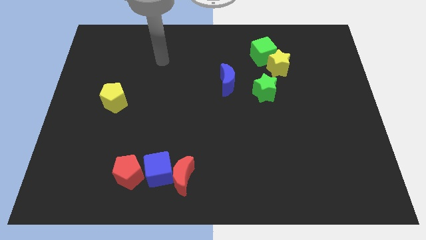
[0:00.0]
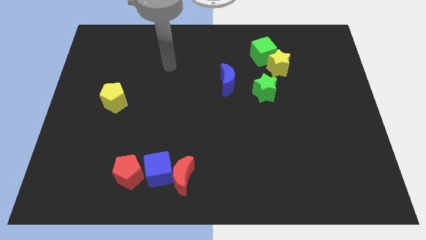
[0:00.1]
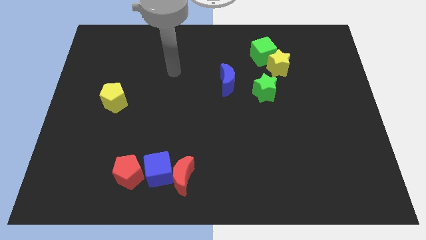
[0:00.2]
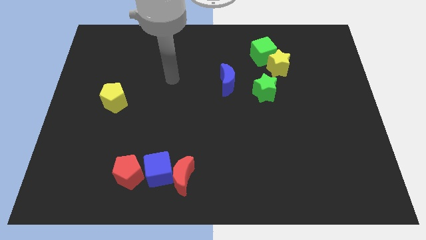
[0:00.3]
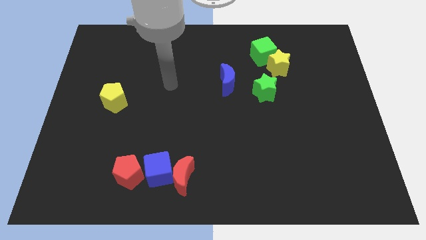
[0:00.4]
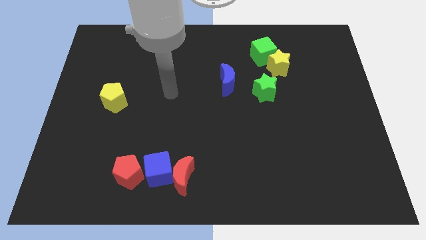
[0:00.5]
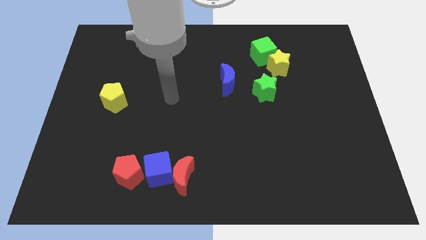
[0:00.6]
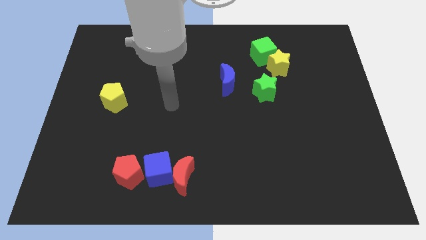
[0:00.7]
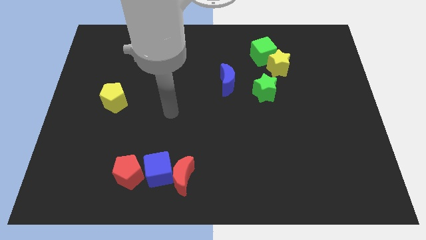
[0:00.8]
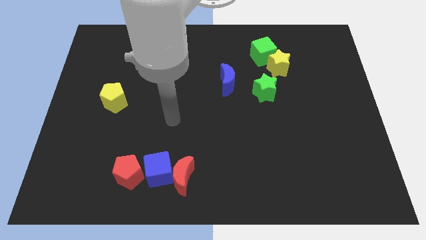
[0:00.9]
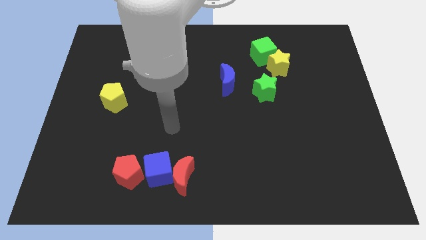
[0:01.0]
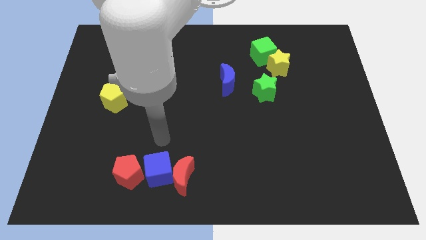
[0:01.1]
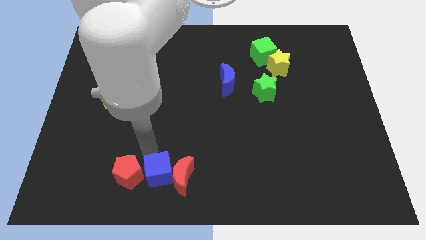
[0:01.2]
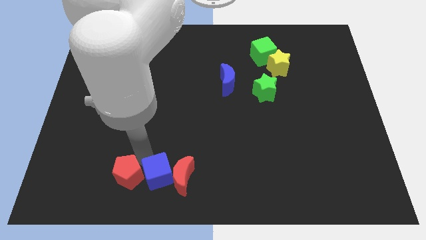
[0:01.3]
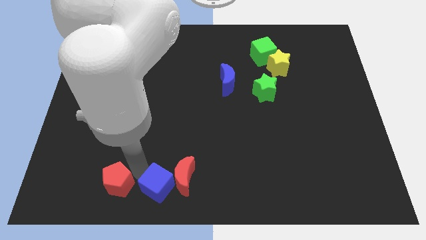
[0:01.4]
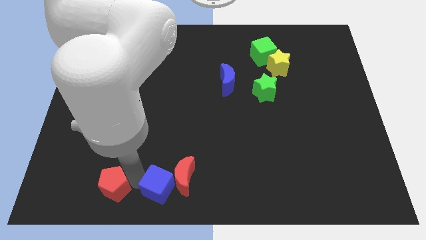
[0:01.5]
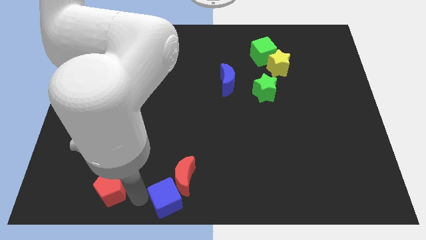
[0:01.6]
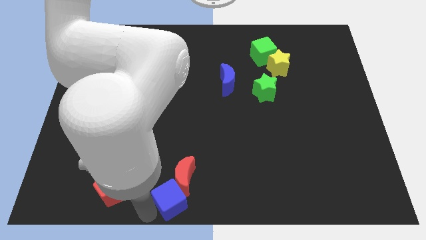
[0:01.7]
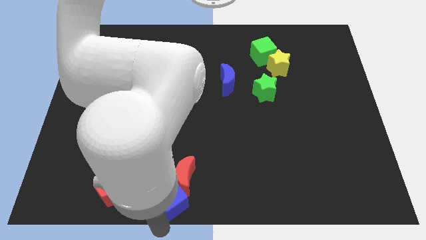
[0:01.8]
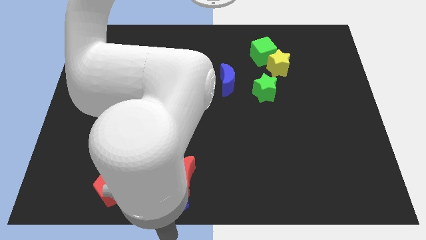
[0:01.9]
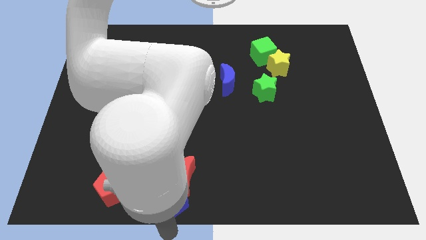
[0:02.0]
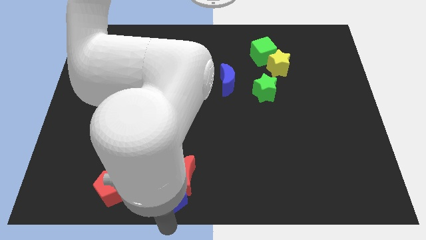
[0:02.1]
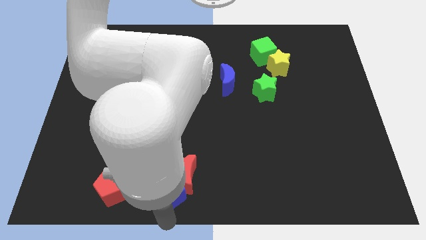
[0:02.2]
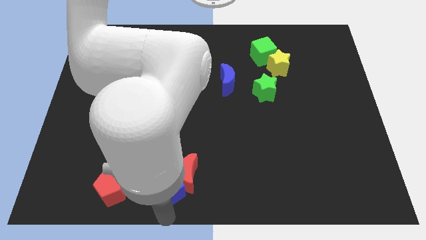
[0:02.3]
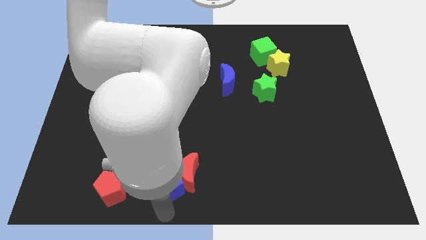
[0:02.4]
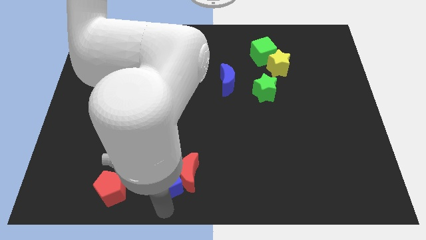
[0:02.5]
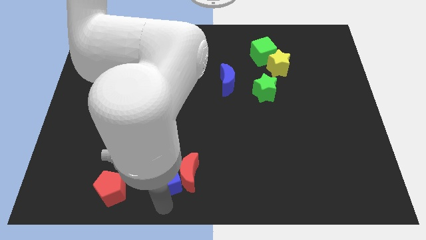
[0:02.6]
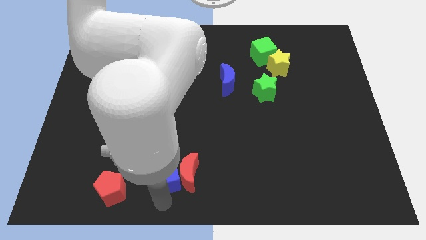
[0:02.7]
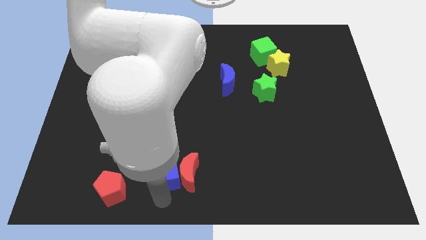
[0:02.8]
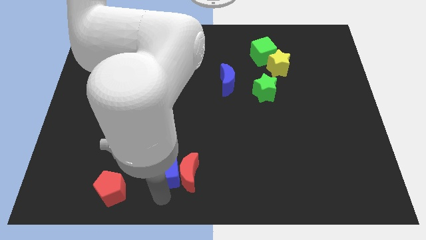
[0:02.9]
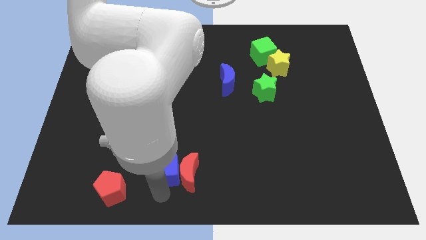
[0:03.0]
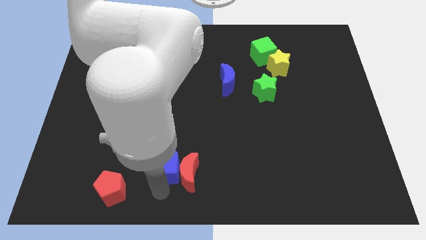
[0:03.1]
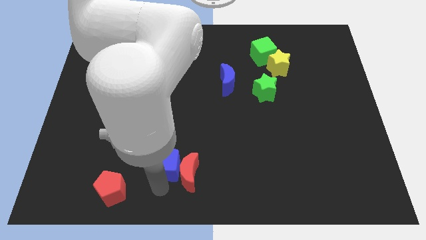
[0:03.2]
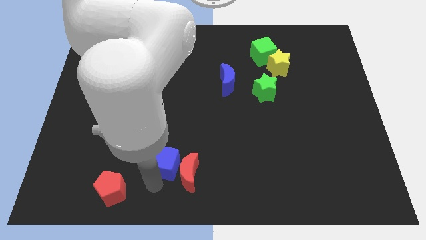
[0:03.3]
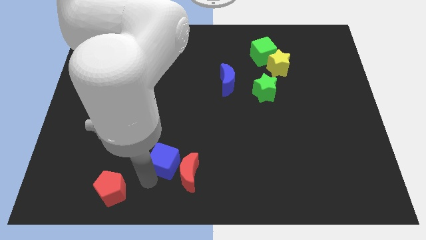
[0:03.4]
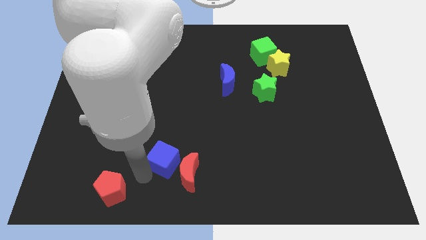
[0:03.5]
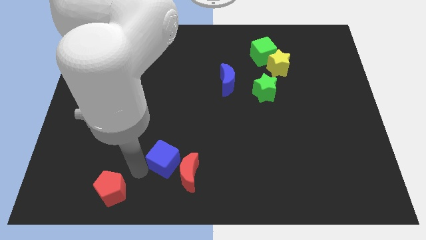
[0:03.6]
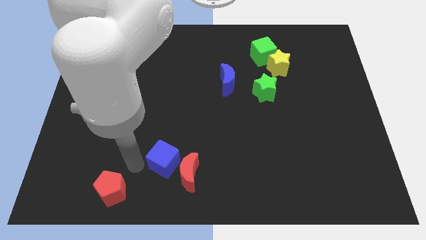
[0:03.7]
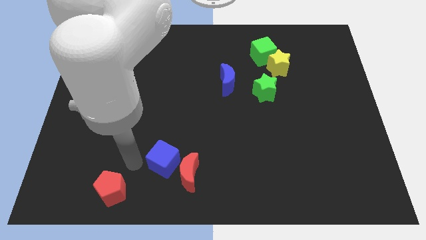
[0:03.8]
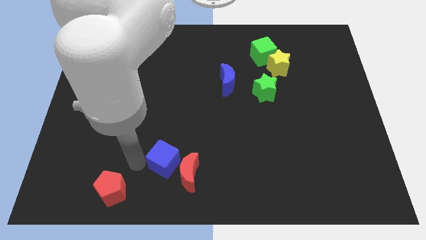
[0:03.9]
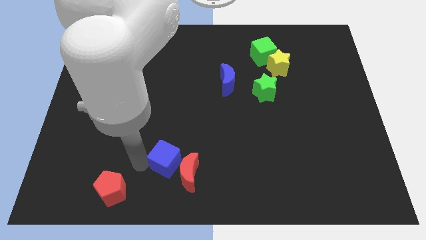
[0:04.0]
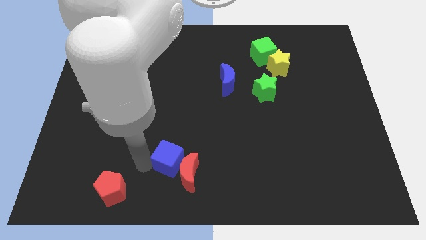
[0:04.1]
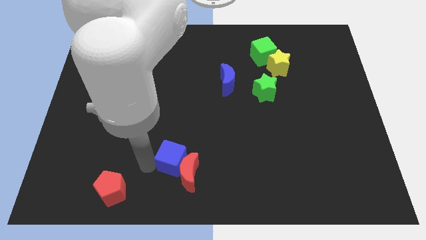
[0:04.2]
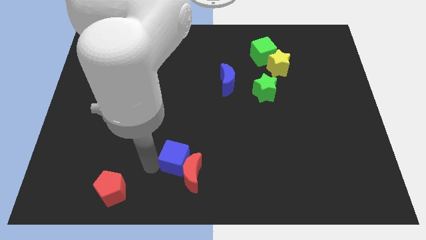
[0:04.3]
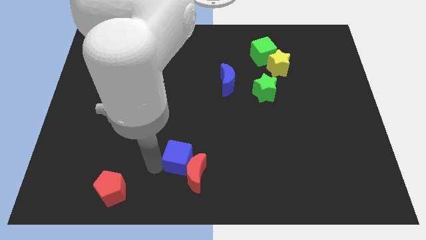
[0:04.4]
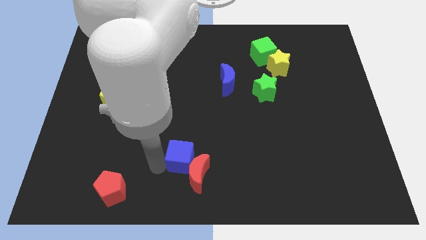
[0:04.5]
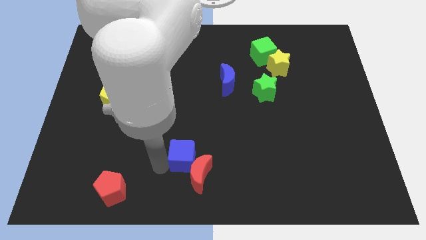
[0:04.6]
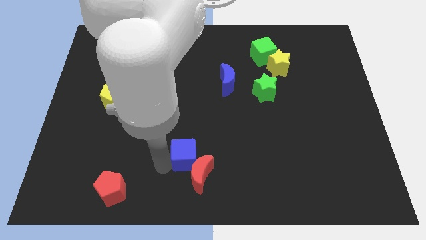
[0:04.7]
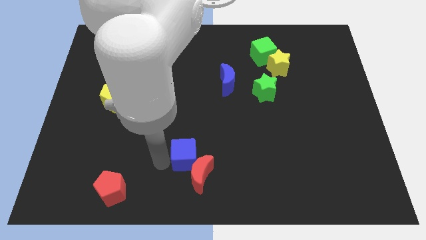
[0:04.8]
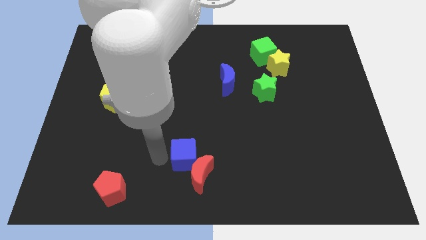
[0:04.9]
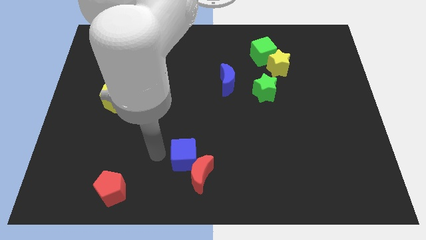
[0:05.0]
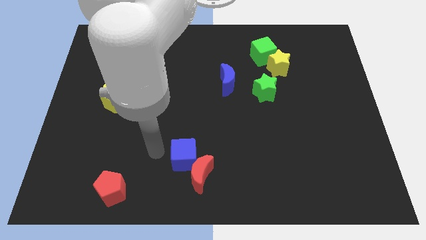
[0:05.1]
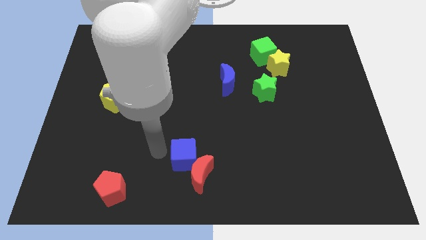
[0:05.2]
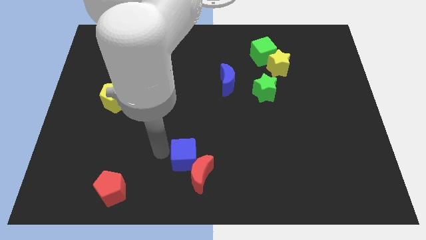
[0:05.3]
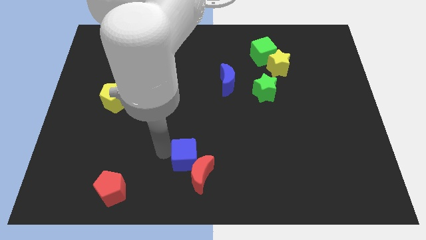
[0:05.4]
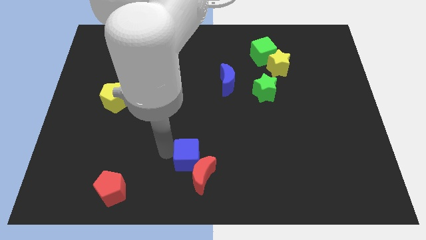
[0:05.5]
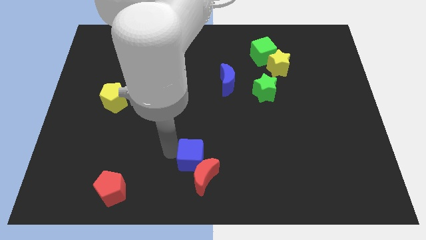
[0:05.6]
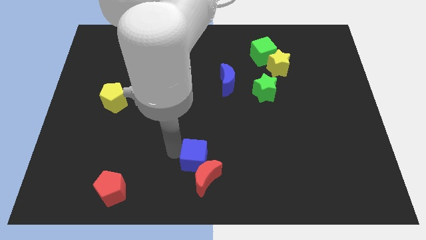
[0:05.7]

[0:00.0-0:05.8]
slightly push the blue cube right

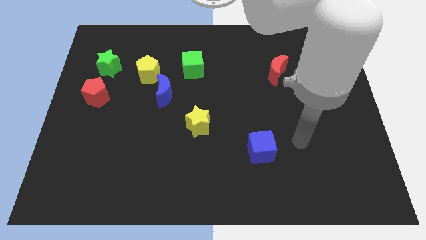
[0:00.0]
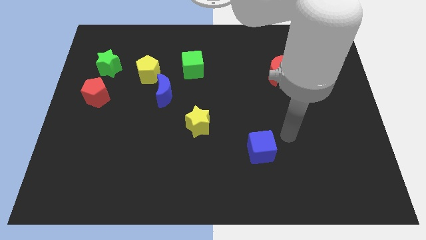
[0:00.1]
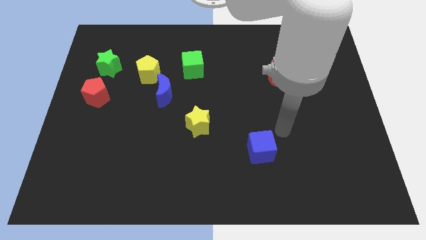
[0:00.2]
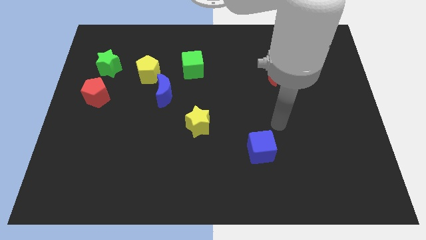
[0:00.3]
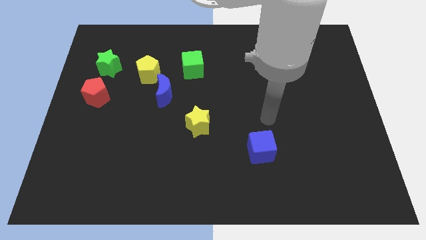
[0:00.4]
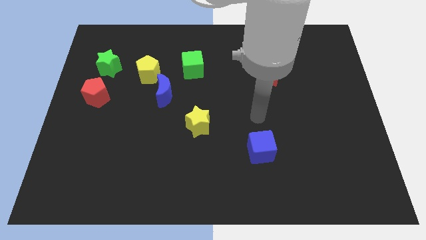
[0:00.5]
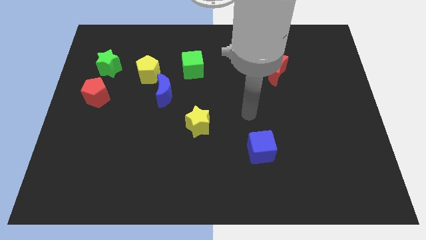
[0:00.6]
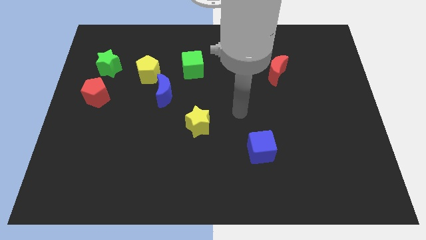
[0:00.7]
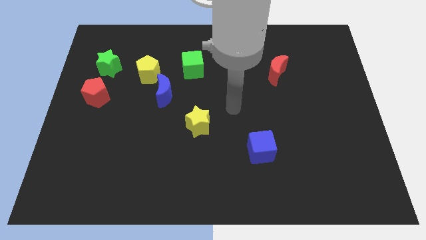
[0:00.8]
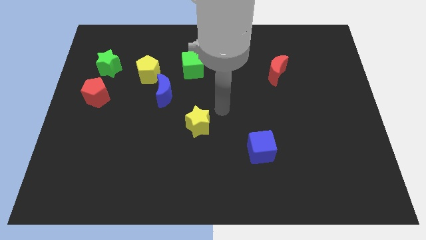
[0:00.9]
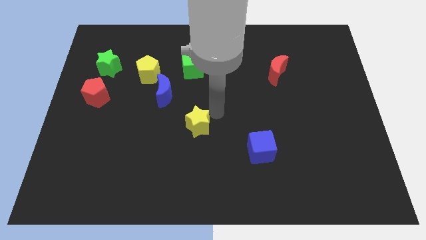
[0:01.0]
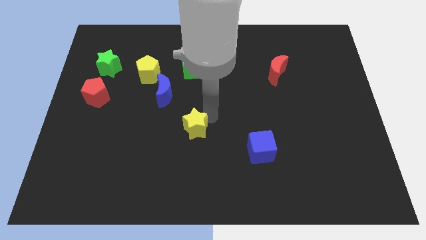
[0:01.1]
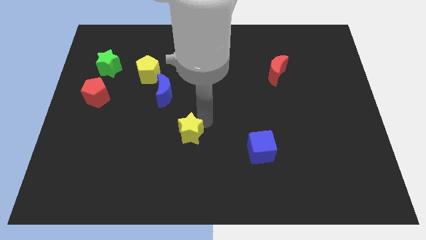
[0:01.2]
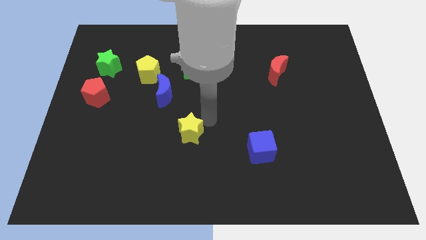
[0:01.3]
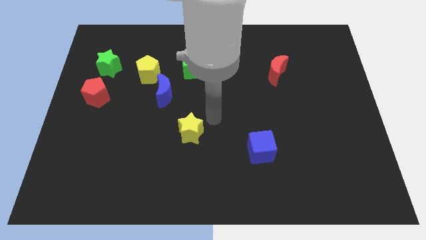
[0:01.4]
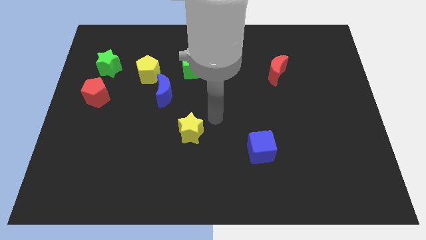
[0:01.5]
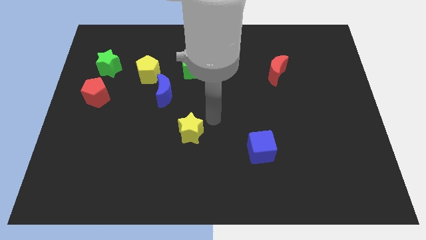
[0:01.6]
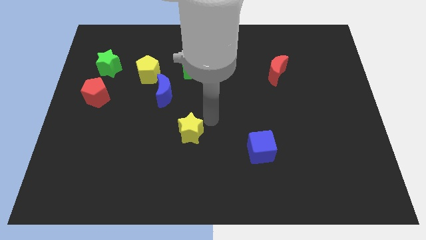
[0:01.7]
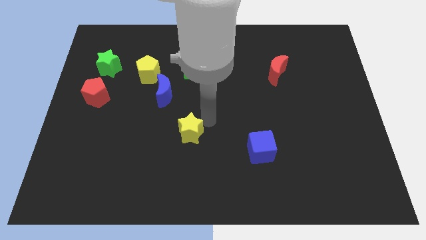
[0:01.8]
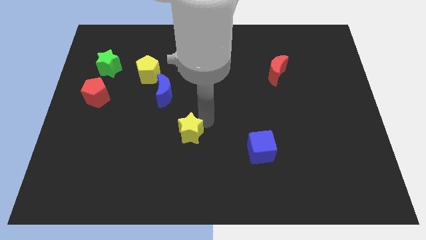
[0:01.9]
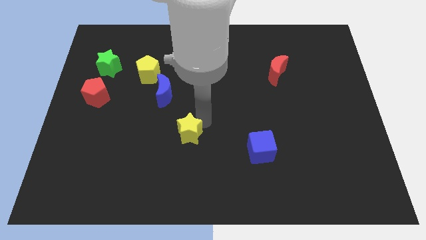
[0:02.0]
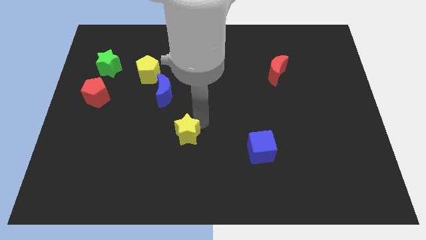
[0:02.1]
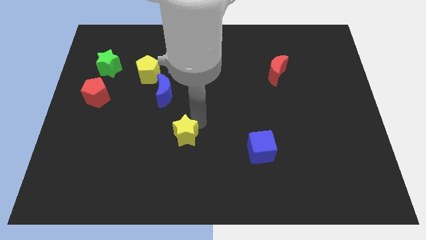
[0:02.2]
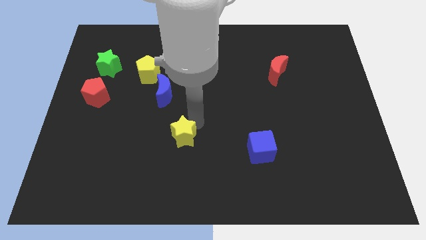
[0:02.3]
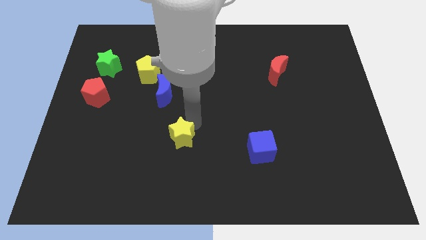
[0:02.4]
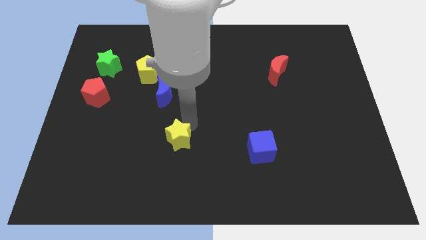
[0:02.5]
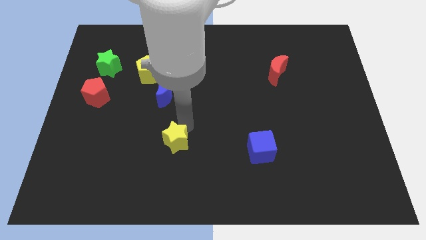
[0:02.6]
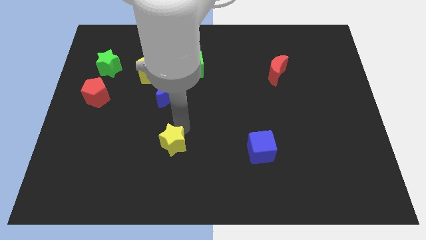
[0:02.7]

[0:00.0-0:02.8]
slightly push the yellow star down and then to the left
